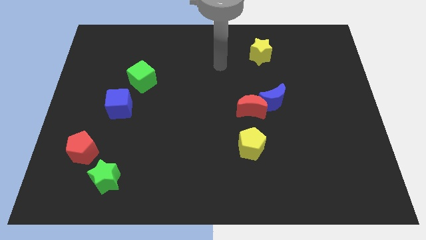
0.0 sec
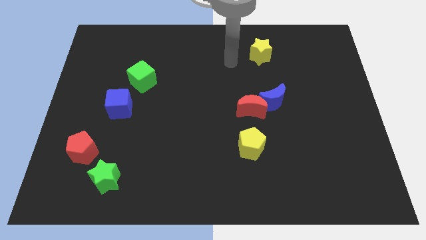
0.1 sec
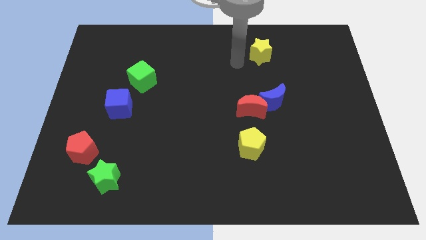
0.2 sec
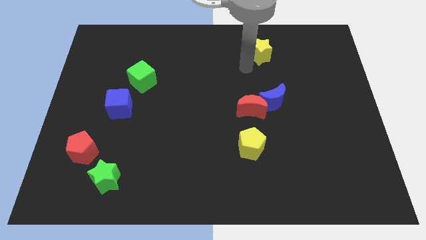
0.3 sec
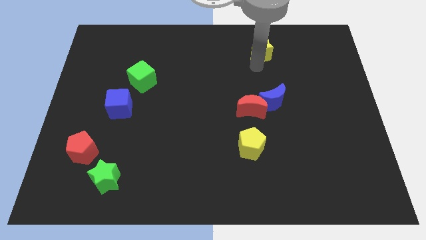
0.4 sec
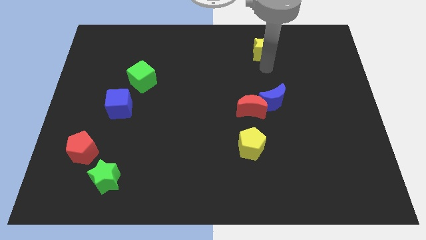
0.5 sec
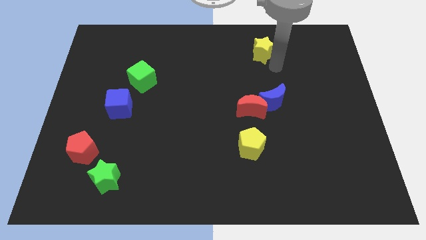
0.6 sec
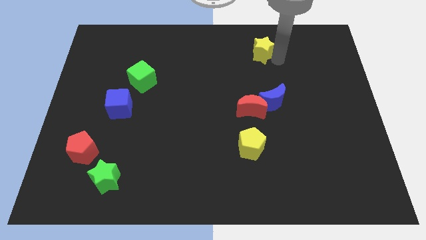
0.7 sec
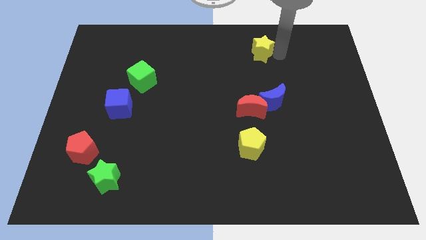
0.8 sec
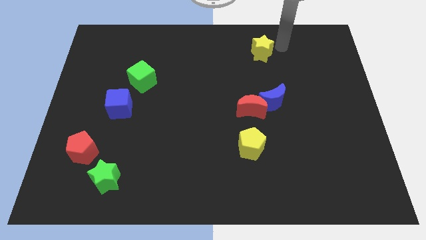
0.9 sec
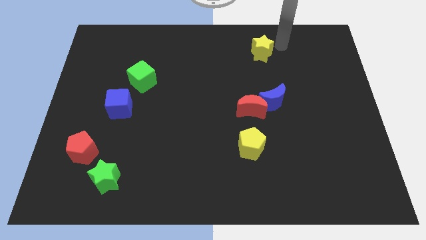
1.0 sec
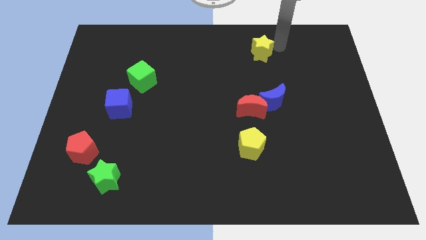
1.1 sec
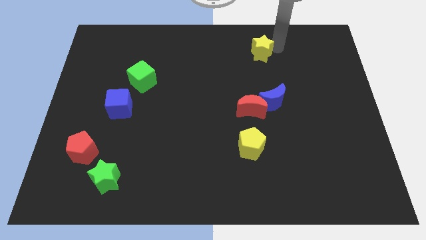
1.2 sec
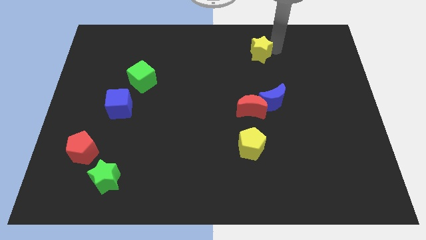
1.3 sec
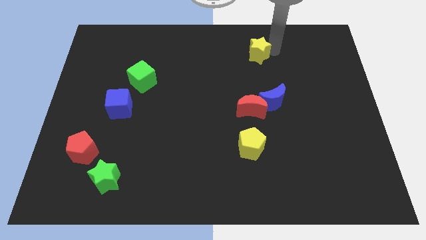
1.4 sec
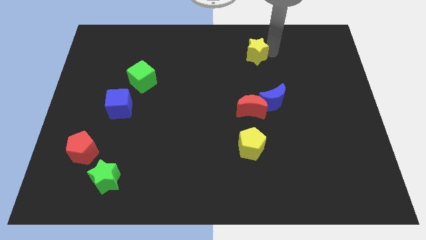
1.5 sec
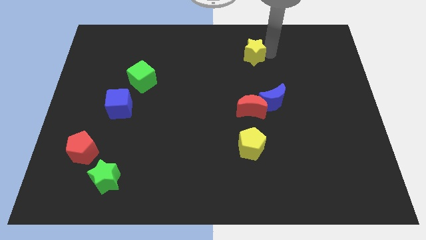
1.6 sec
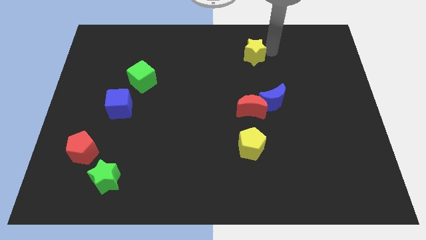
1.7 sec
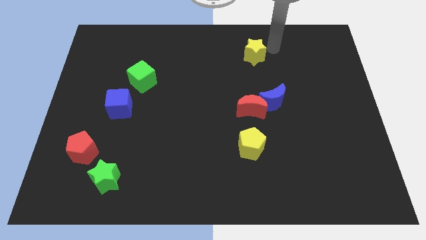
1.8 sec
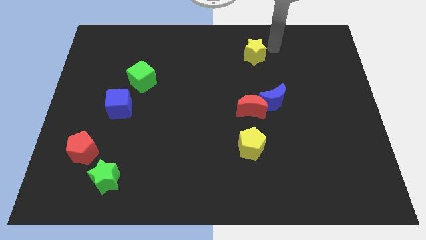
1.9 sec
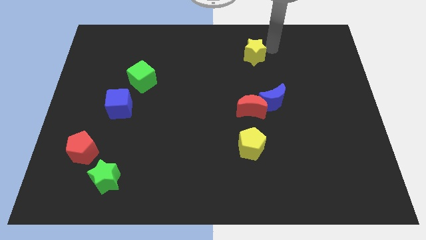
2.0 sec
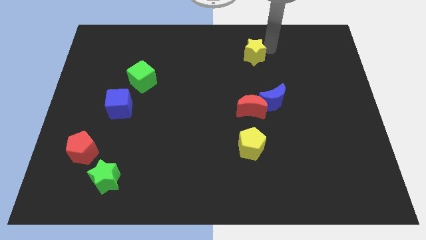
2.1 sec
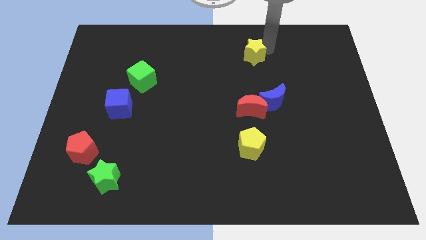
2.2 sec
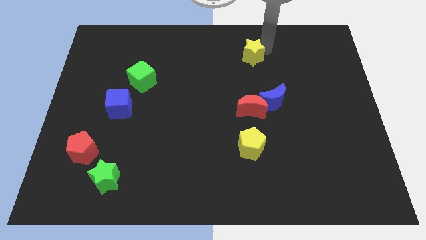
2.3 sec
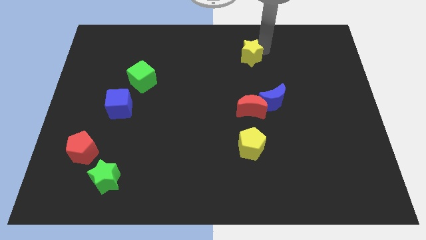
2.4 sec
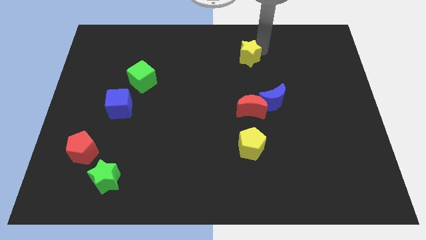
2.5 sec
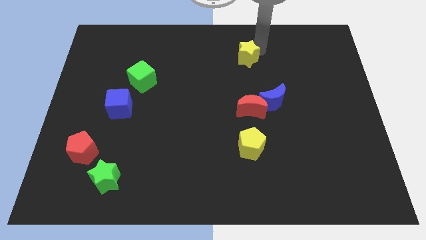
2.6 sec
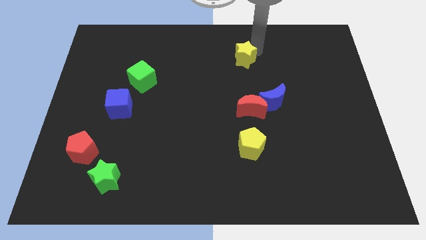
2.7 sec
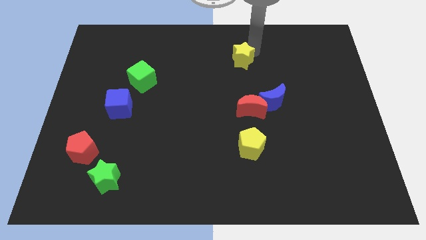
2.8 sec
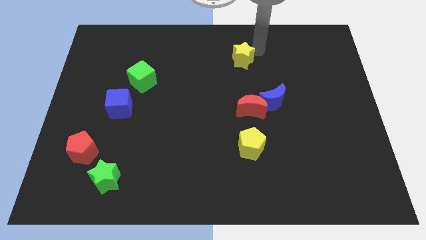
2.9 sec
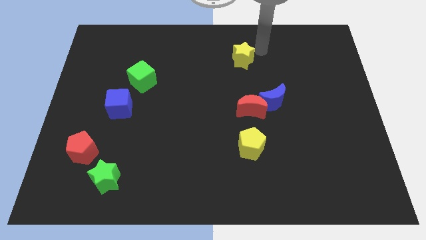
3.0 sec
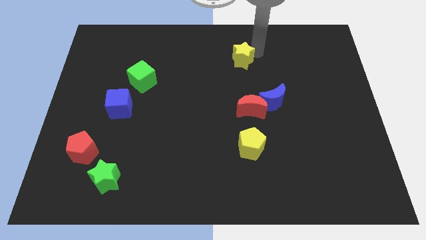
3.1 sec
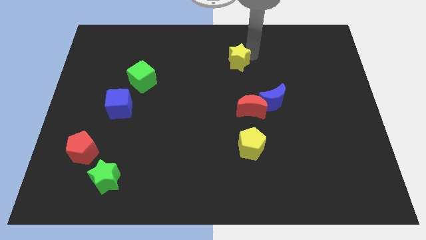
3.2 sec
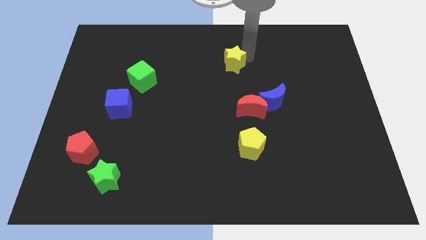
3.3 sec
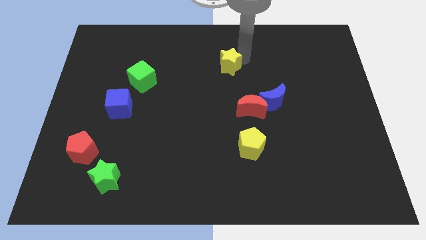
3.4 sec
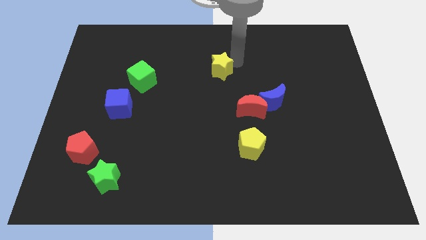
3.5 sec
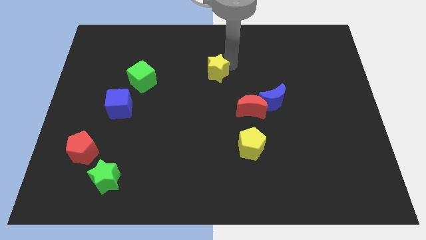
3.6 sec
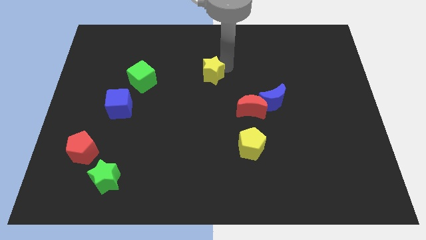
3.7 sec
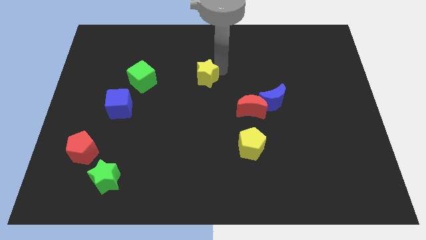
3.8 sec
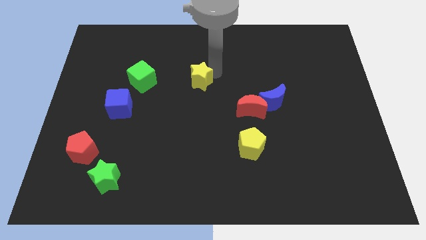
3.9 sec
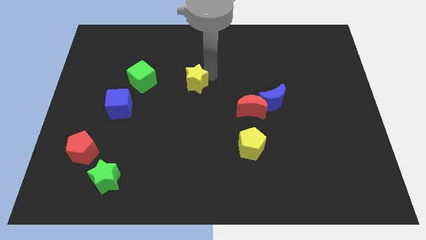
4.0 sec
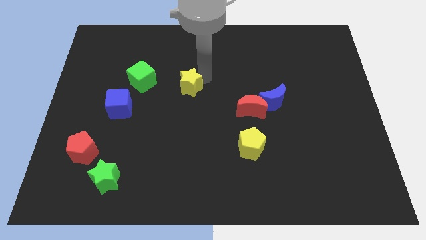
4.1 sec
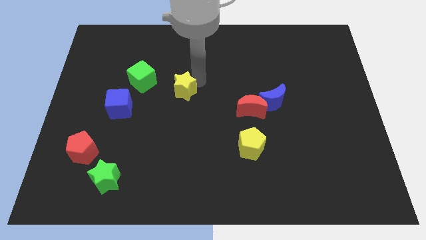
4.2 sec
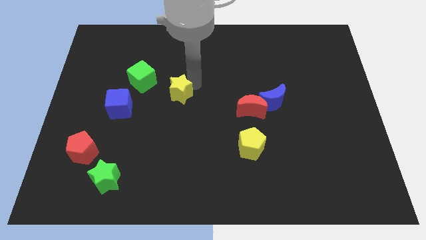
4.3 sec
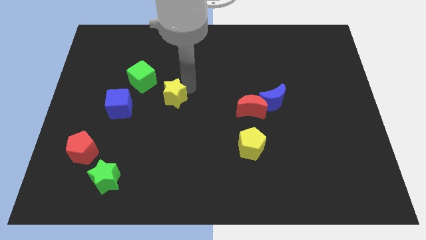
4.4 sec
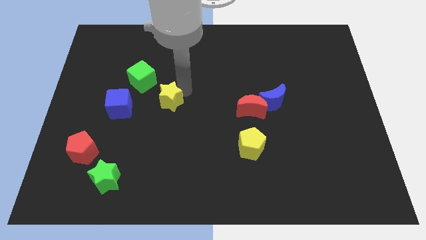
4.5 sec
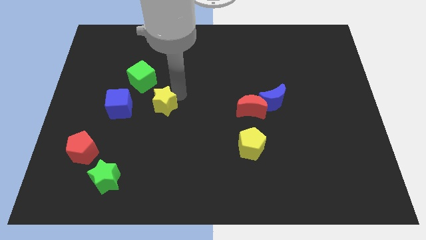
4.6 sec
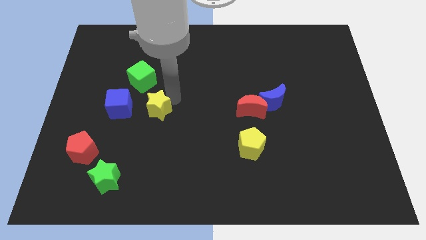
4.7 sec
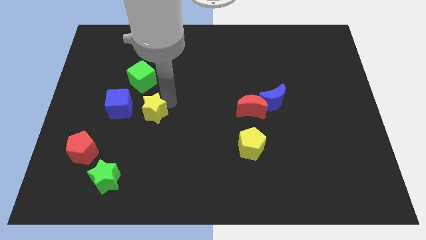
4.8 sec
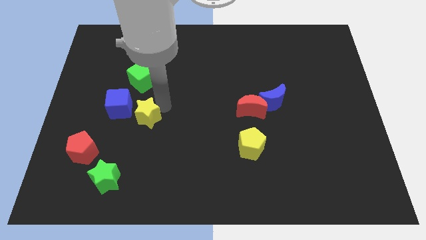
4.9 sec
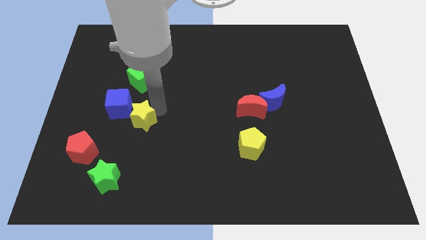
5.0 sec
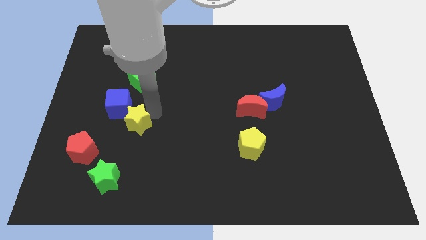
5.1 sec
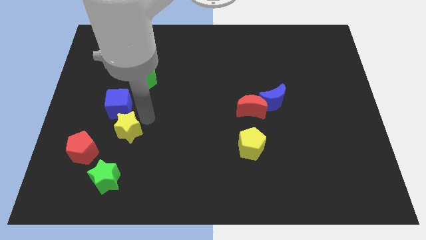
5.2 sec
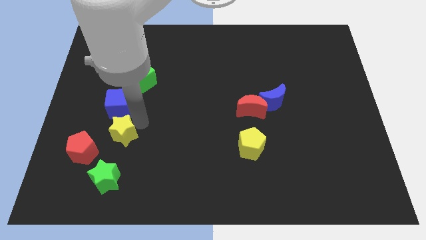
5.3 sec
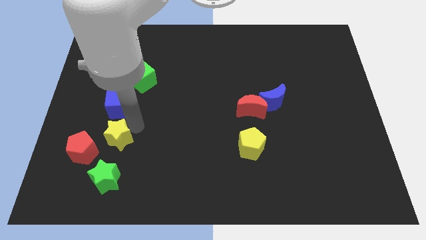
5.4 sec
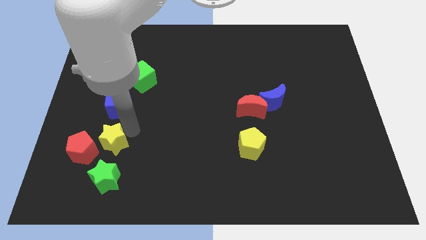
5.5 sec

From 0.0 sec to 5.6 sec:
slide the yellow star next to the red pentagon

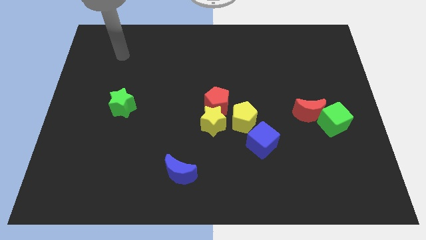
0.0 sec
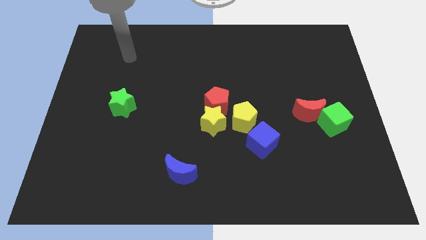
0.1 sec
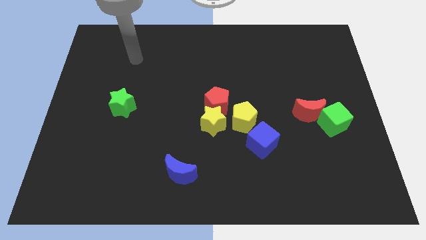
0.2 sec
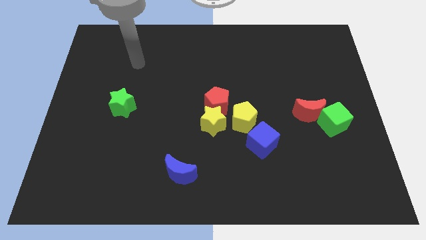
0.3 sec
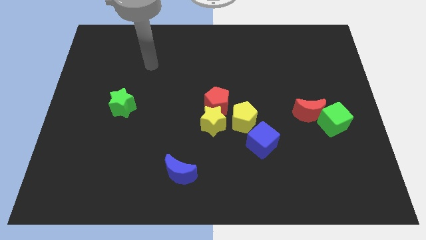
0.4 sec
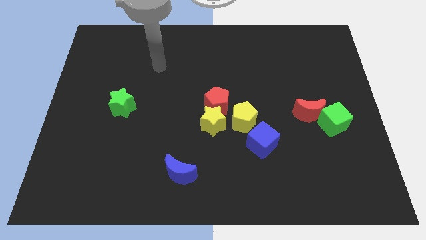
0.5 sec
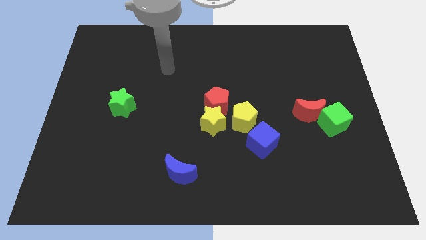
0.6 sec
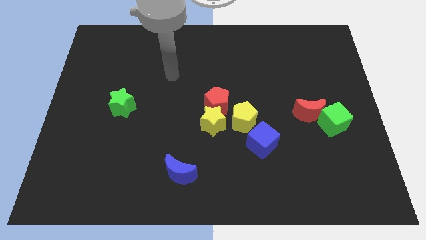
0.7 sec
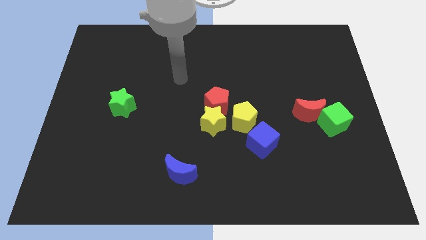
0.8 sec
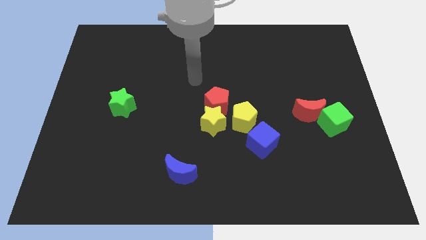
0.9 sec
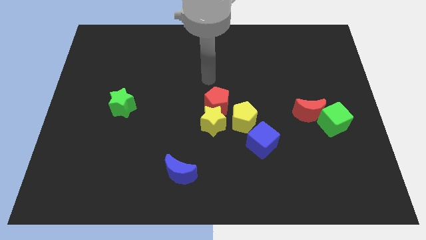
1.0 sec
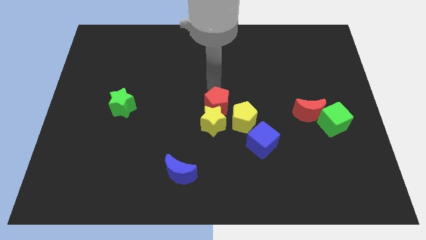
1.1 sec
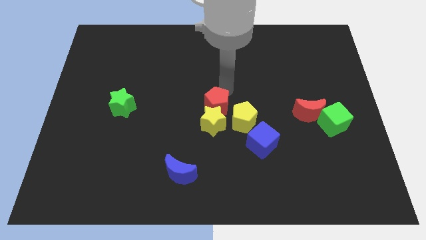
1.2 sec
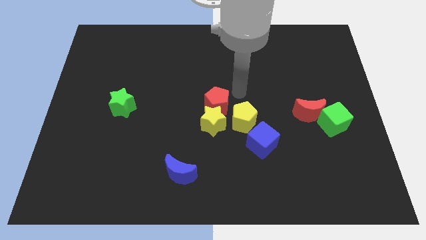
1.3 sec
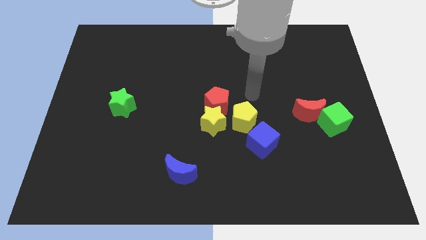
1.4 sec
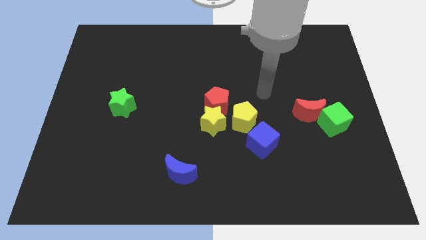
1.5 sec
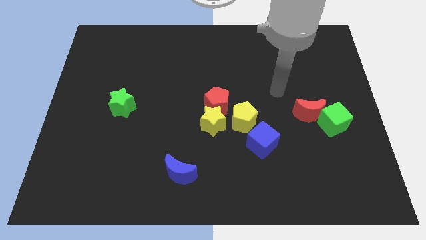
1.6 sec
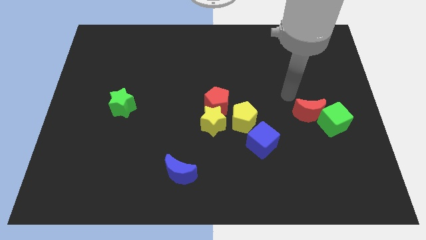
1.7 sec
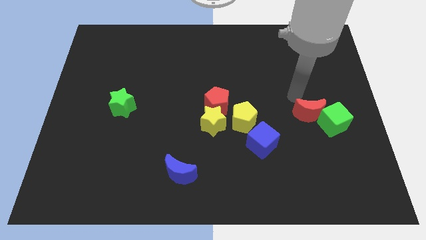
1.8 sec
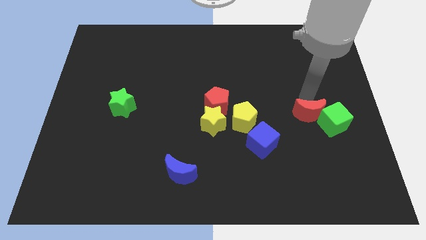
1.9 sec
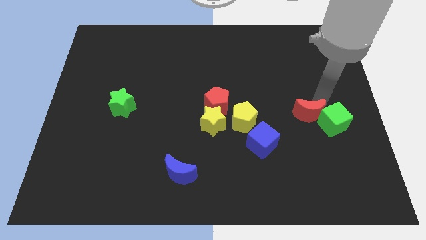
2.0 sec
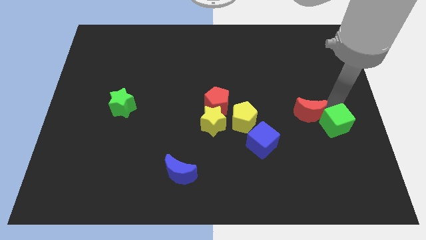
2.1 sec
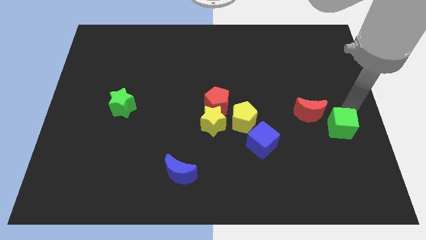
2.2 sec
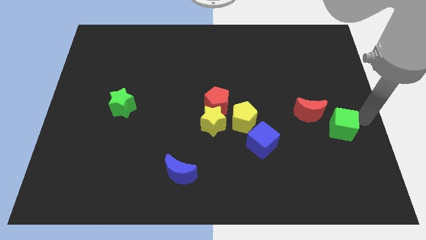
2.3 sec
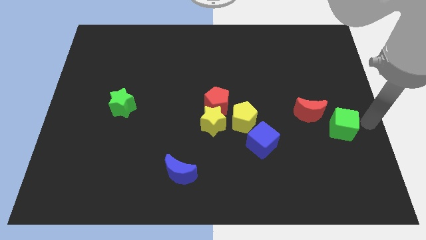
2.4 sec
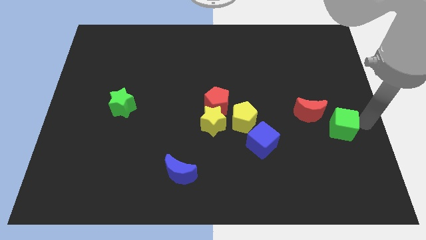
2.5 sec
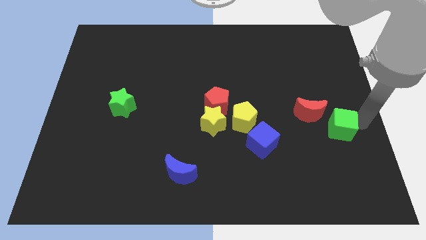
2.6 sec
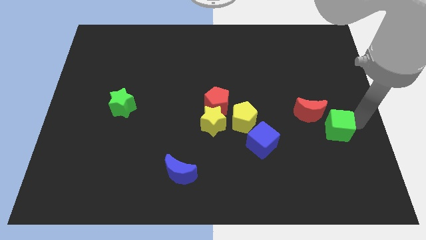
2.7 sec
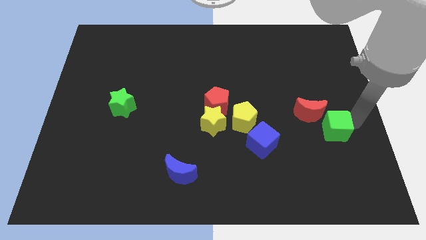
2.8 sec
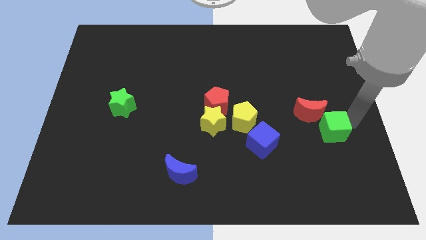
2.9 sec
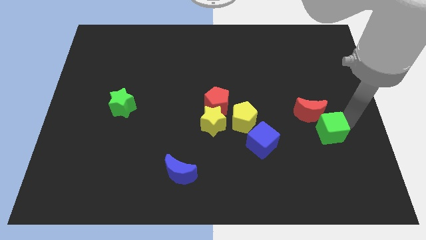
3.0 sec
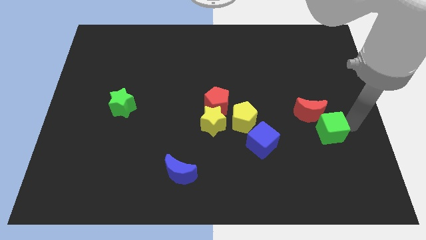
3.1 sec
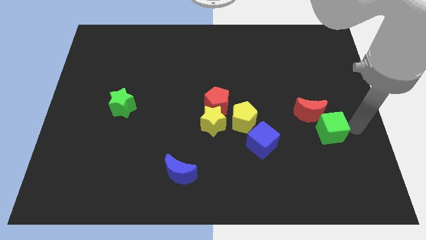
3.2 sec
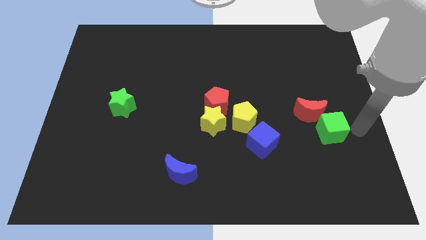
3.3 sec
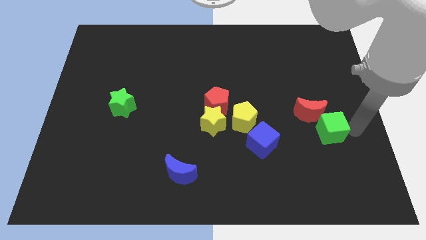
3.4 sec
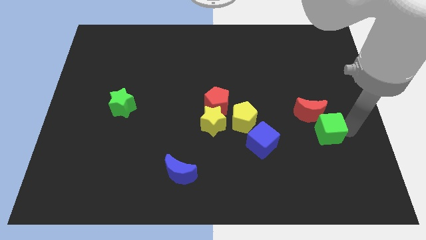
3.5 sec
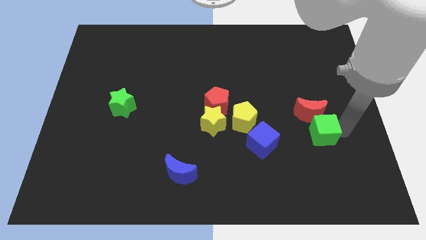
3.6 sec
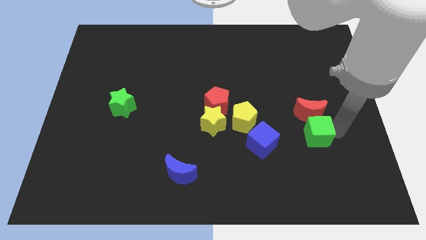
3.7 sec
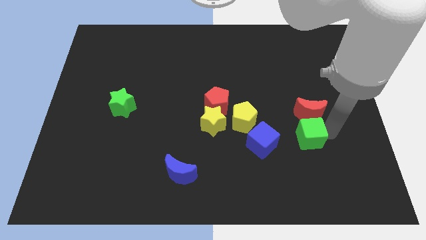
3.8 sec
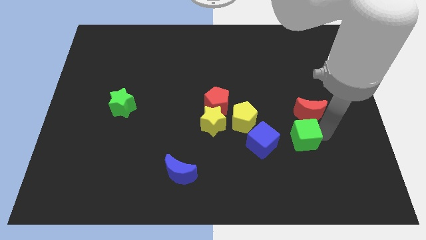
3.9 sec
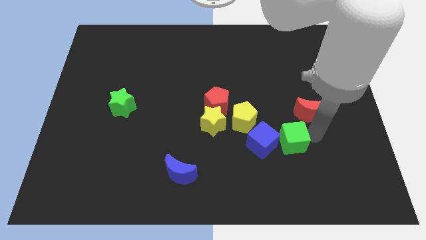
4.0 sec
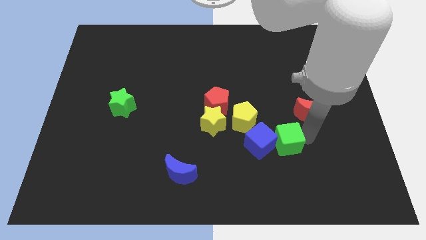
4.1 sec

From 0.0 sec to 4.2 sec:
slide the green cube next to the blue cube
